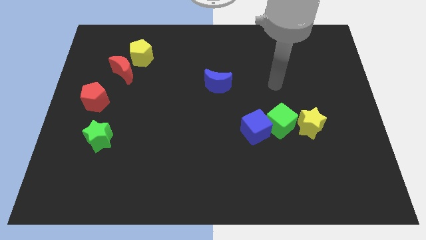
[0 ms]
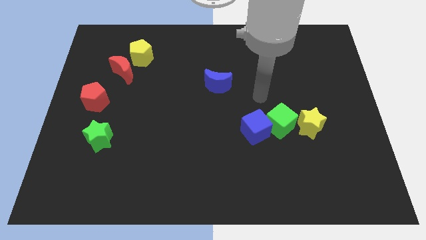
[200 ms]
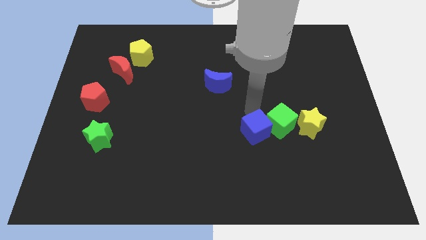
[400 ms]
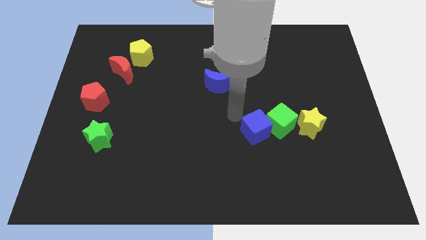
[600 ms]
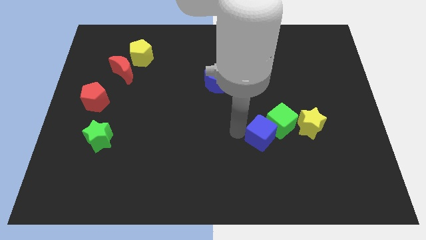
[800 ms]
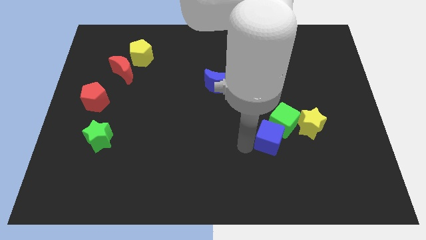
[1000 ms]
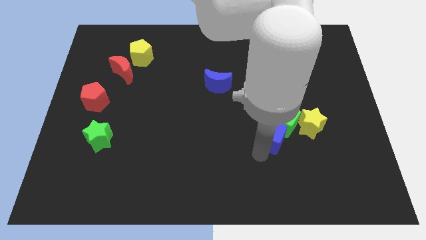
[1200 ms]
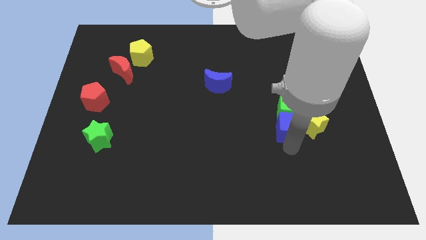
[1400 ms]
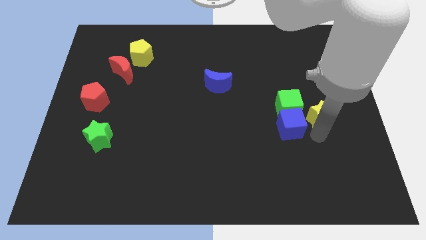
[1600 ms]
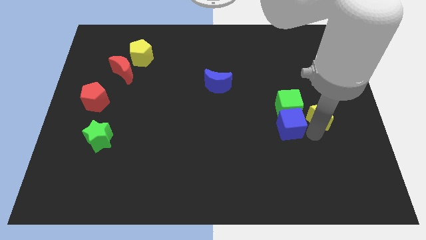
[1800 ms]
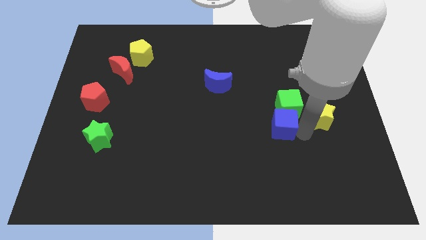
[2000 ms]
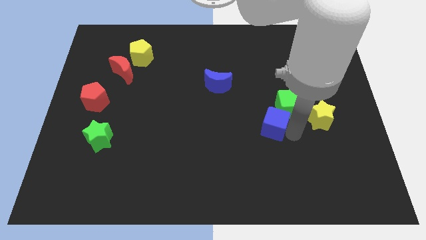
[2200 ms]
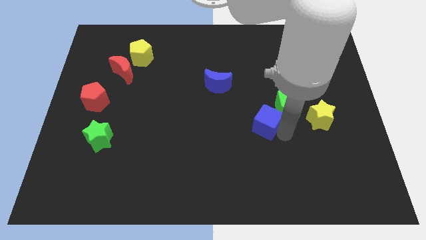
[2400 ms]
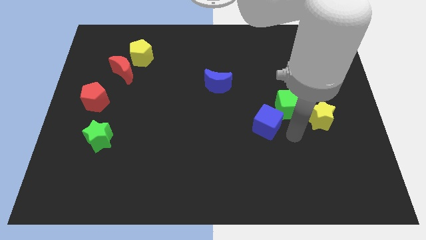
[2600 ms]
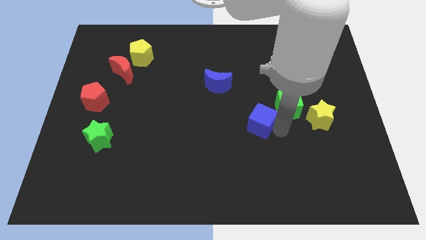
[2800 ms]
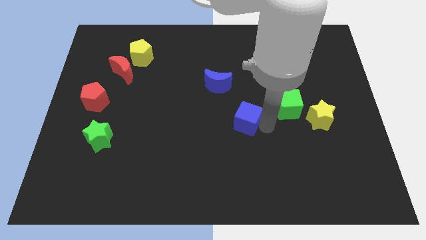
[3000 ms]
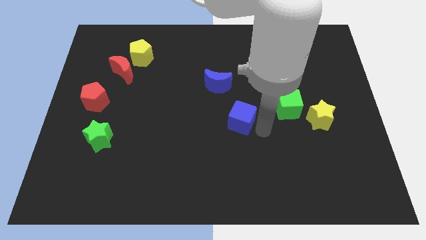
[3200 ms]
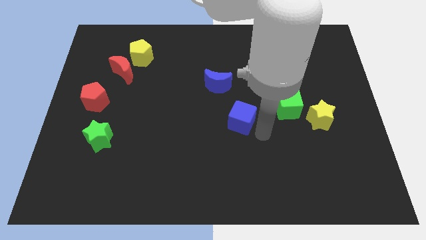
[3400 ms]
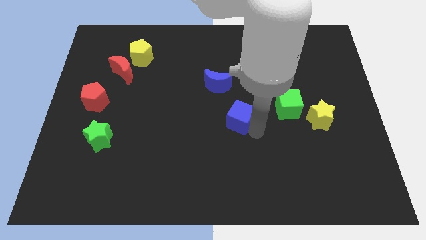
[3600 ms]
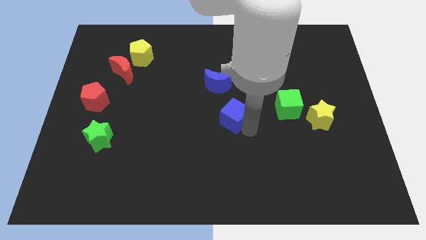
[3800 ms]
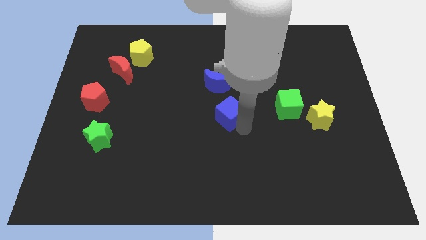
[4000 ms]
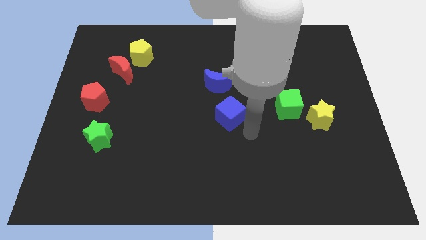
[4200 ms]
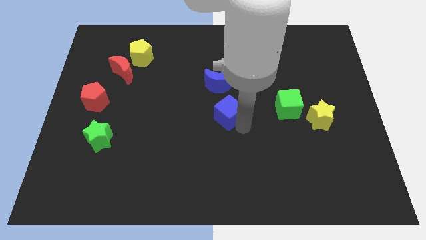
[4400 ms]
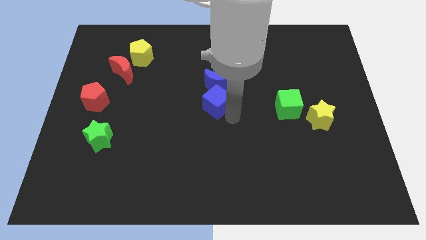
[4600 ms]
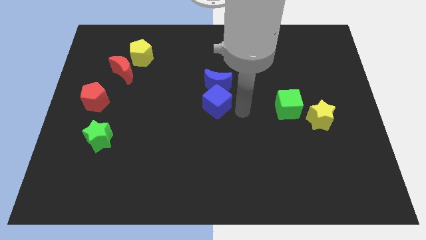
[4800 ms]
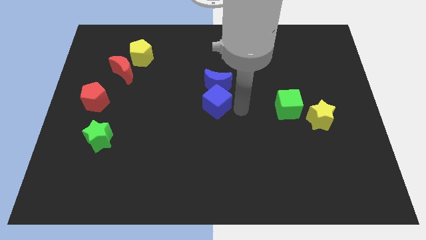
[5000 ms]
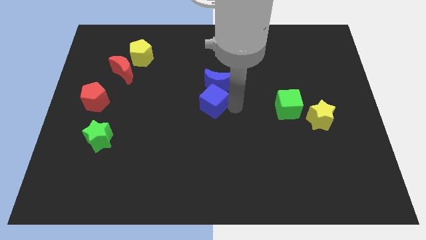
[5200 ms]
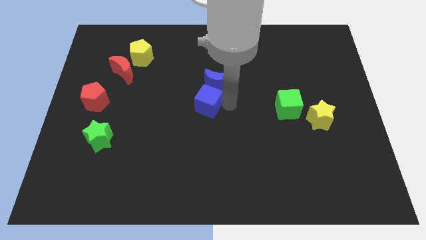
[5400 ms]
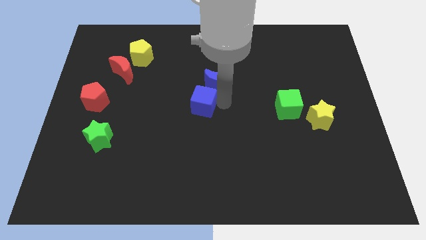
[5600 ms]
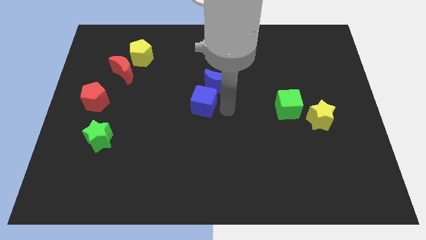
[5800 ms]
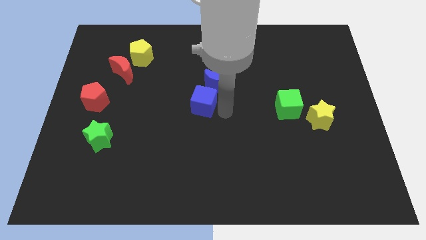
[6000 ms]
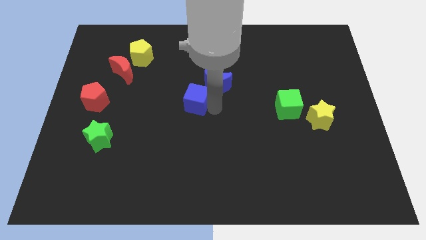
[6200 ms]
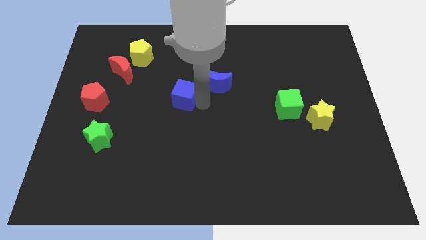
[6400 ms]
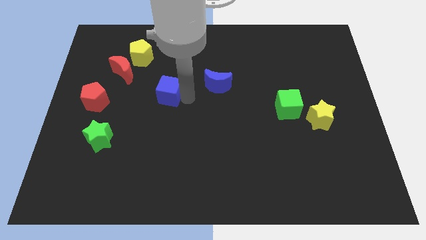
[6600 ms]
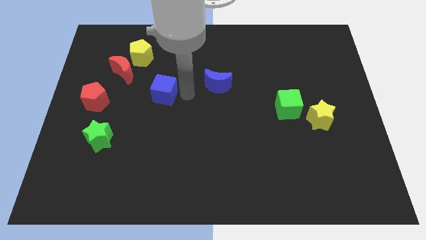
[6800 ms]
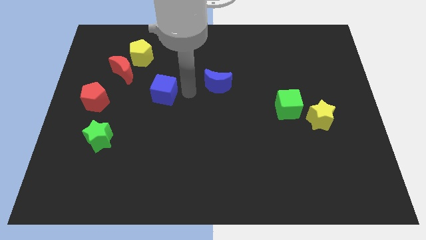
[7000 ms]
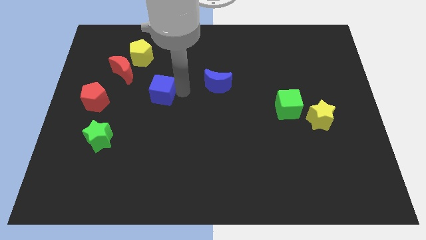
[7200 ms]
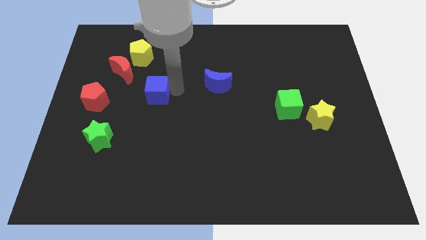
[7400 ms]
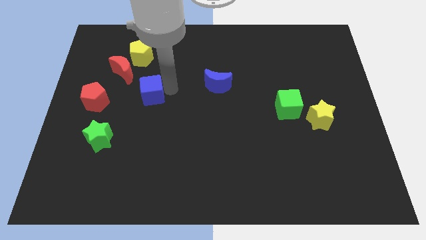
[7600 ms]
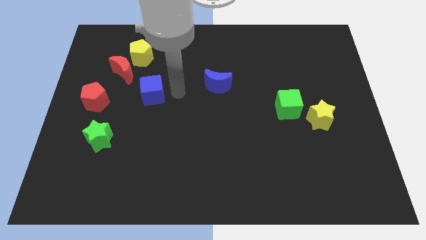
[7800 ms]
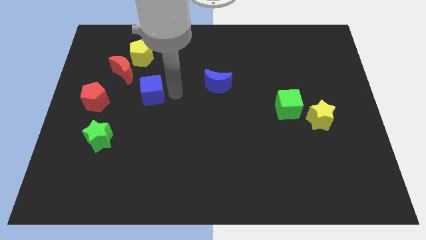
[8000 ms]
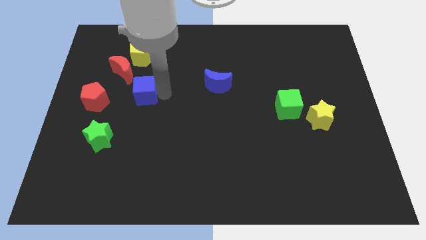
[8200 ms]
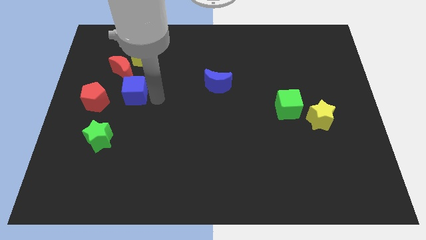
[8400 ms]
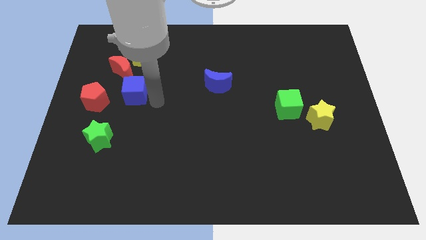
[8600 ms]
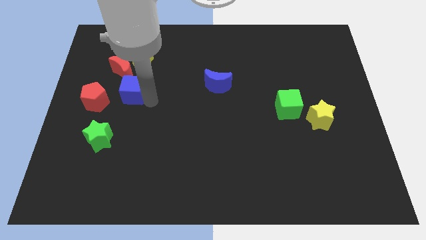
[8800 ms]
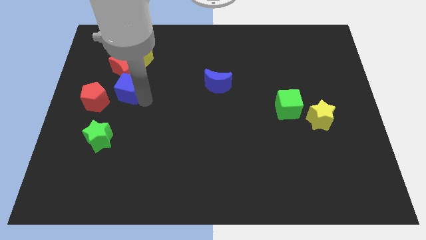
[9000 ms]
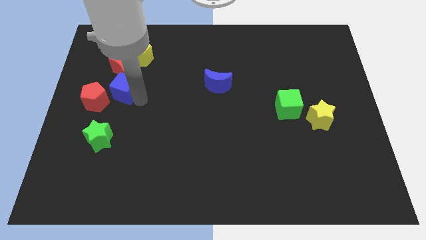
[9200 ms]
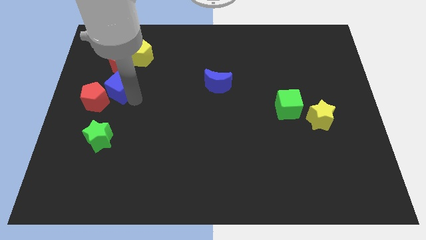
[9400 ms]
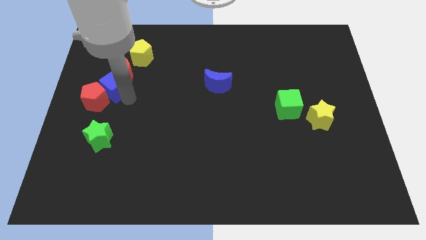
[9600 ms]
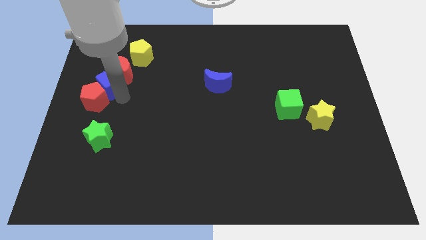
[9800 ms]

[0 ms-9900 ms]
put the blue cube to the bottom left side of the yellow pentagon

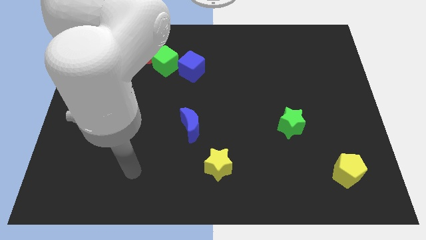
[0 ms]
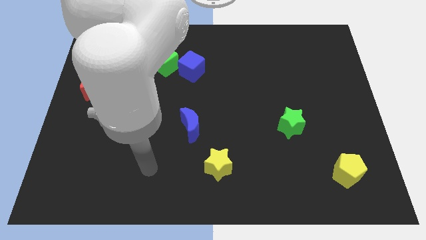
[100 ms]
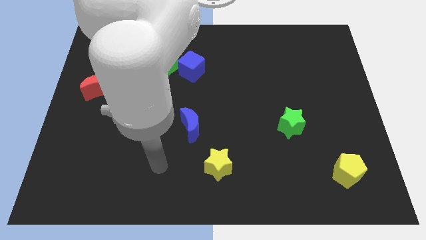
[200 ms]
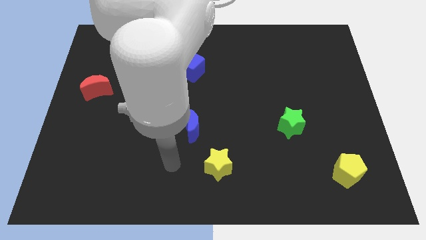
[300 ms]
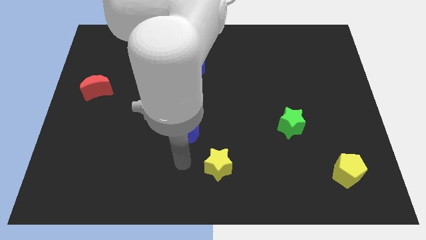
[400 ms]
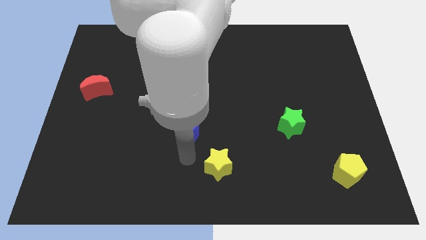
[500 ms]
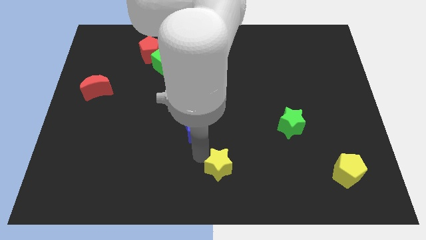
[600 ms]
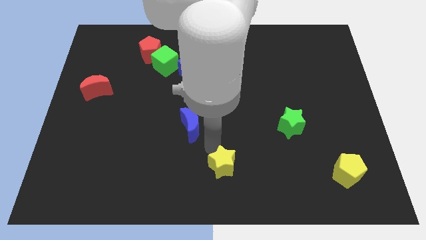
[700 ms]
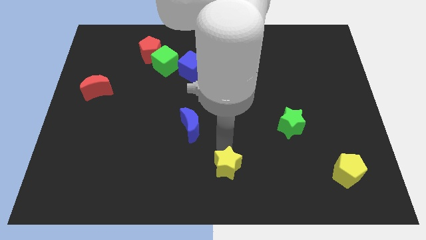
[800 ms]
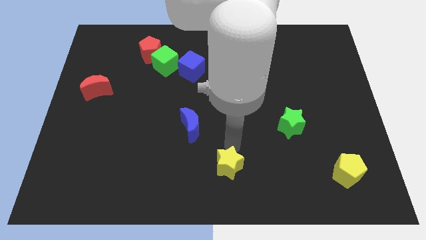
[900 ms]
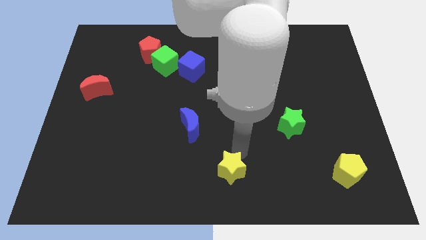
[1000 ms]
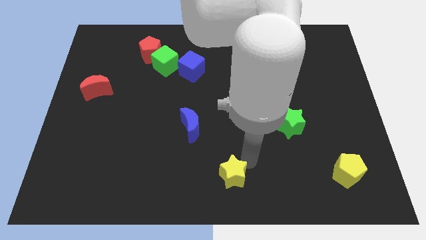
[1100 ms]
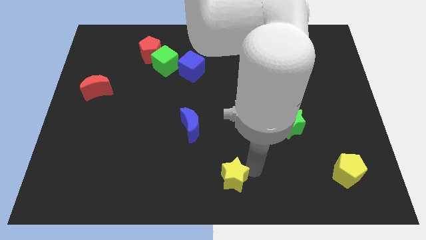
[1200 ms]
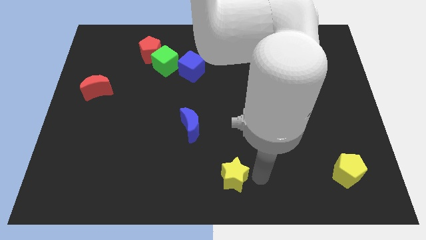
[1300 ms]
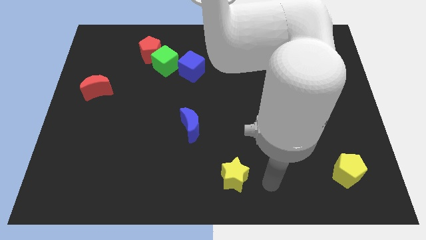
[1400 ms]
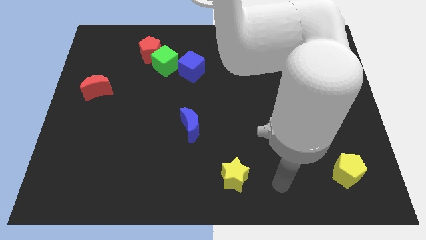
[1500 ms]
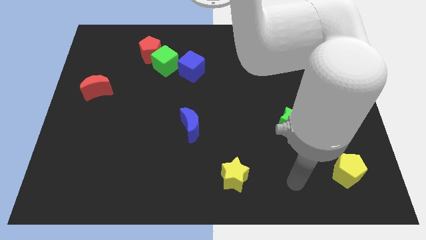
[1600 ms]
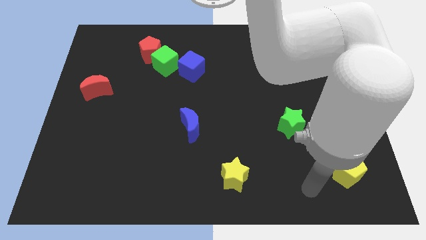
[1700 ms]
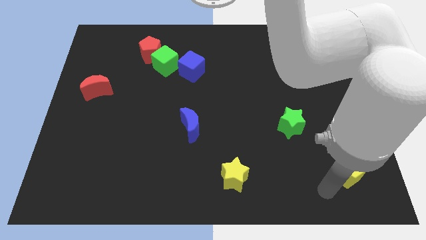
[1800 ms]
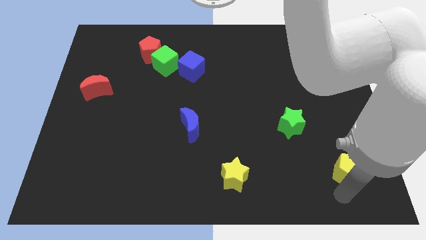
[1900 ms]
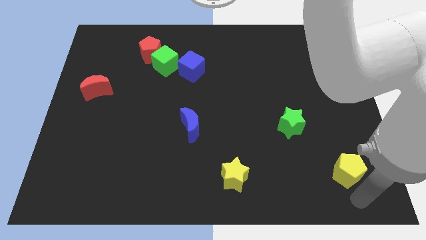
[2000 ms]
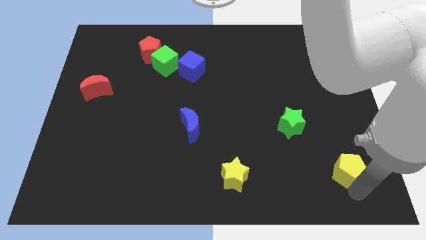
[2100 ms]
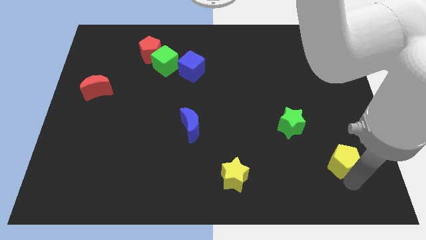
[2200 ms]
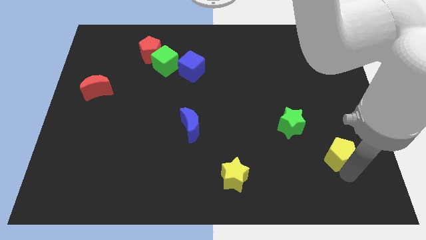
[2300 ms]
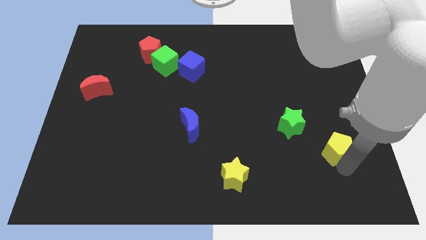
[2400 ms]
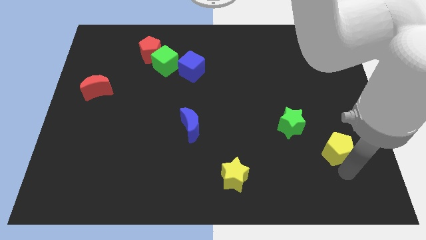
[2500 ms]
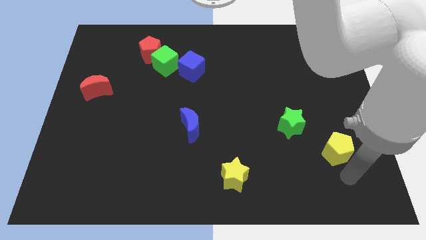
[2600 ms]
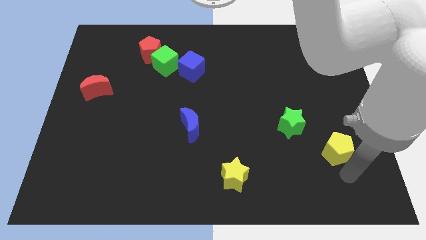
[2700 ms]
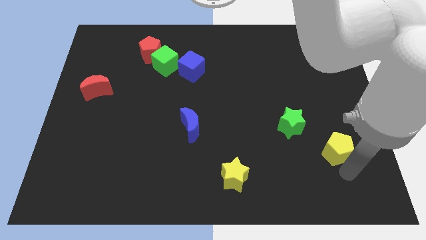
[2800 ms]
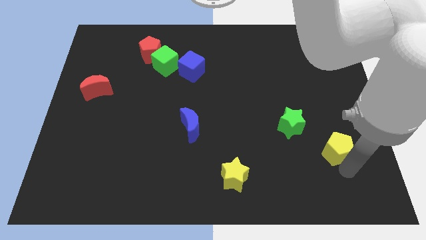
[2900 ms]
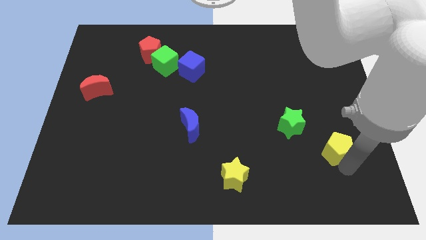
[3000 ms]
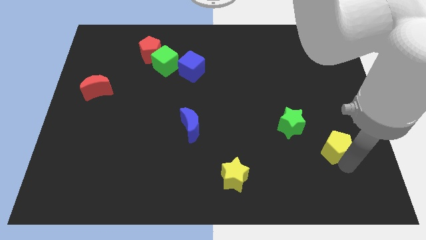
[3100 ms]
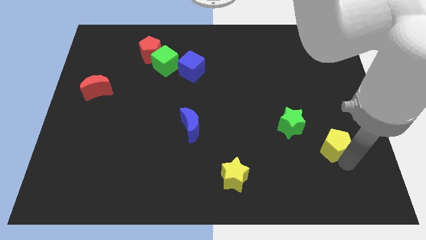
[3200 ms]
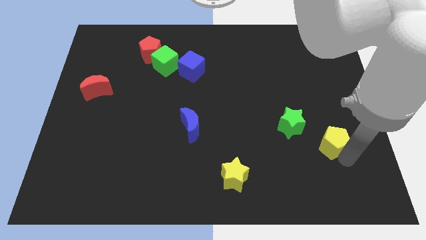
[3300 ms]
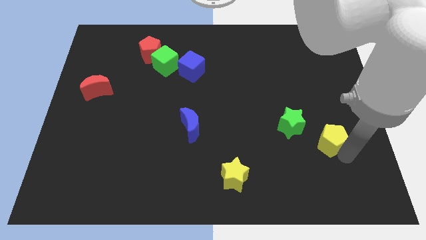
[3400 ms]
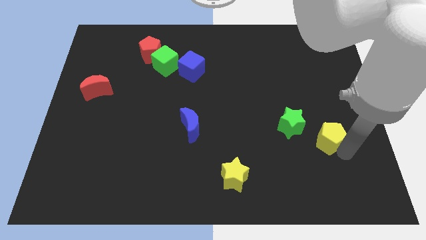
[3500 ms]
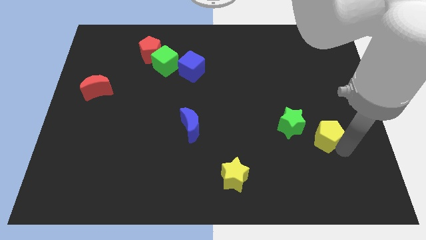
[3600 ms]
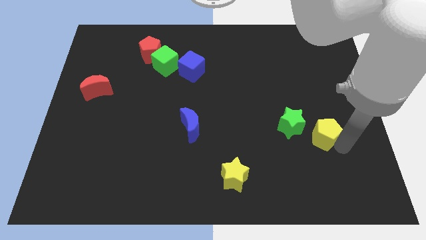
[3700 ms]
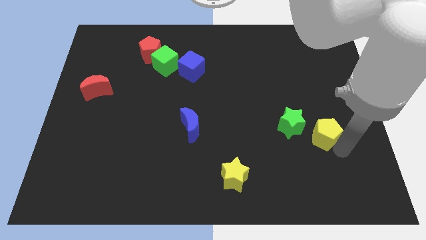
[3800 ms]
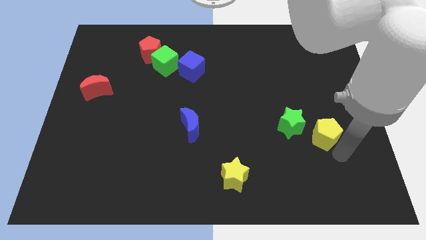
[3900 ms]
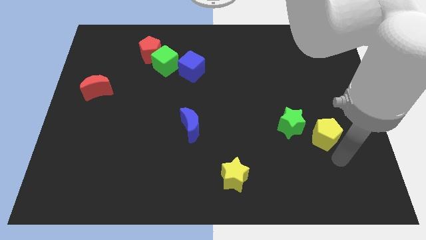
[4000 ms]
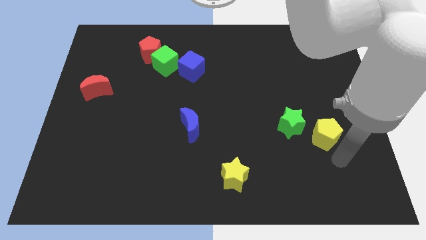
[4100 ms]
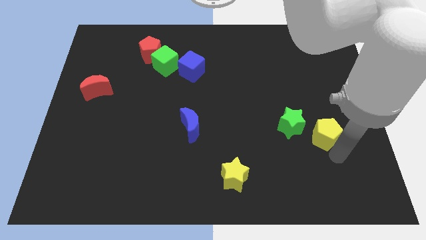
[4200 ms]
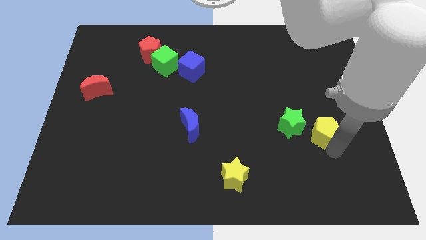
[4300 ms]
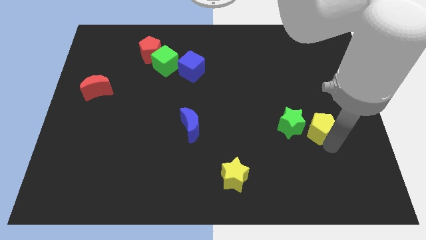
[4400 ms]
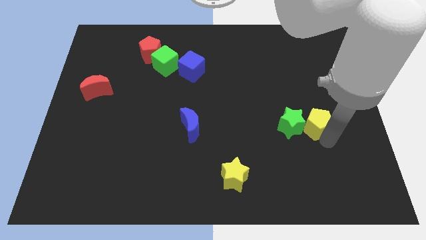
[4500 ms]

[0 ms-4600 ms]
push the yellow pentagon to the top right of the green star
